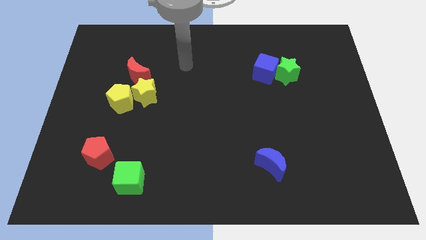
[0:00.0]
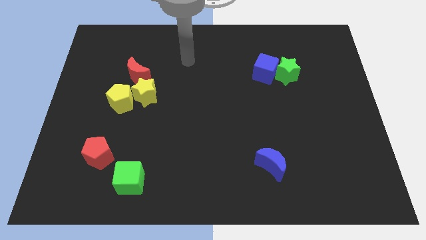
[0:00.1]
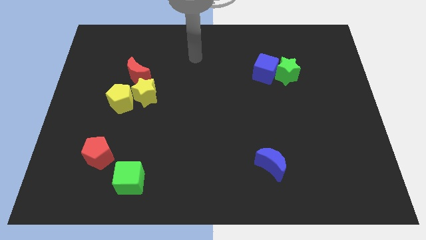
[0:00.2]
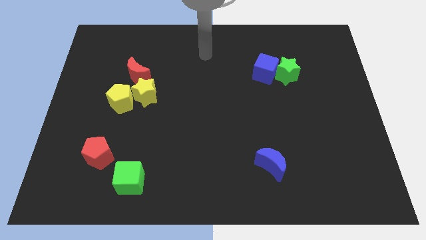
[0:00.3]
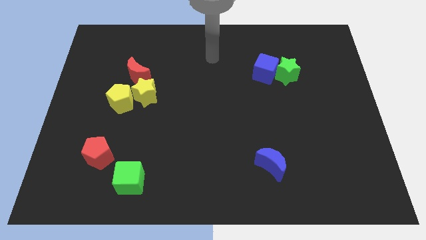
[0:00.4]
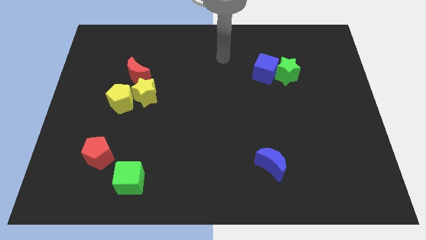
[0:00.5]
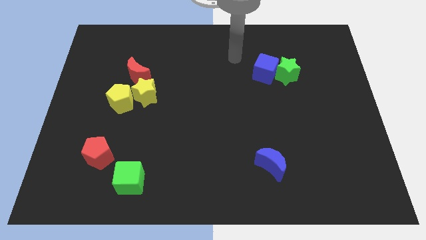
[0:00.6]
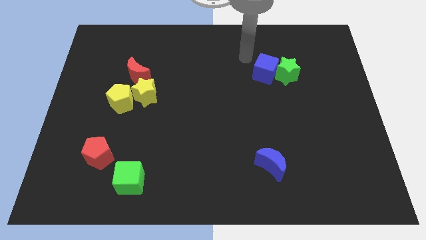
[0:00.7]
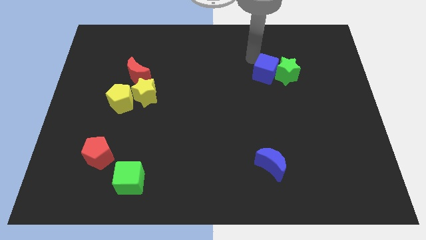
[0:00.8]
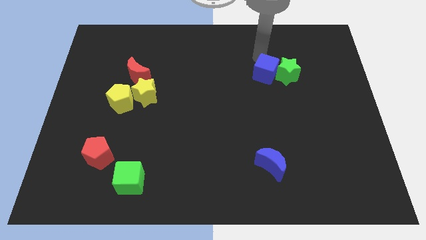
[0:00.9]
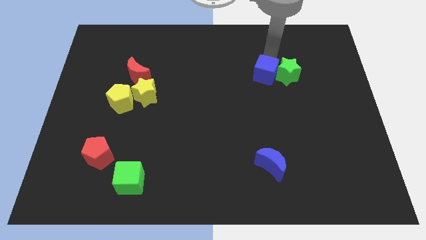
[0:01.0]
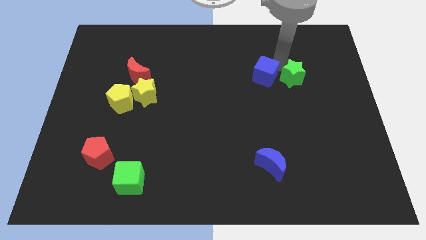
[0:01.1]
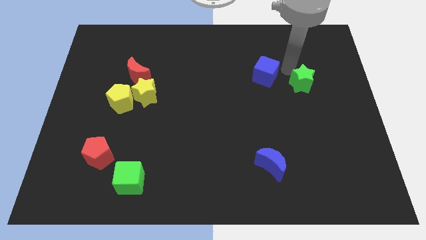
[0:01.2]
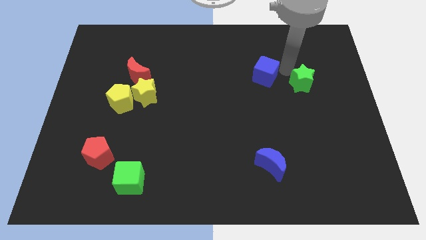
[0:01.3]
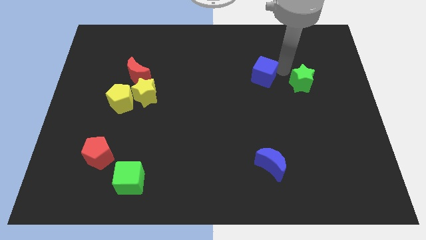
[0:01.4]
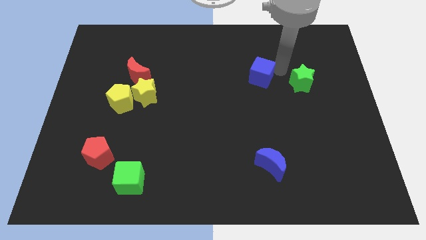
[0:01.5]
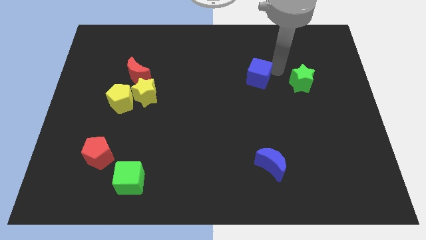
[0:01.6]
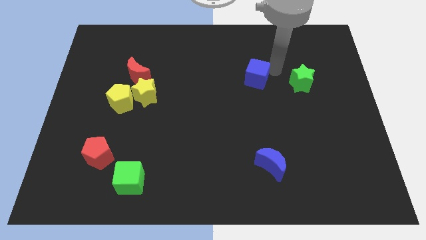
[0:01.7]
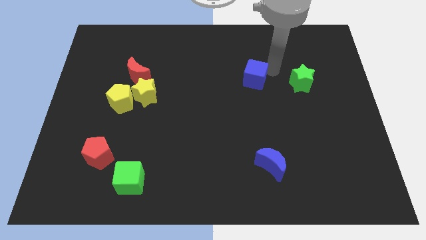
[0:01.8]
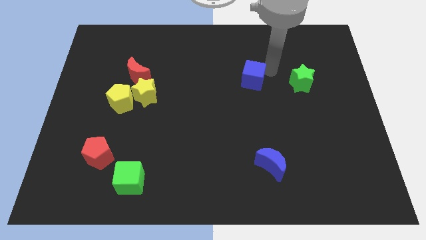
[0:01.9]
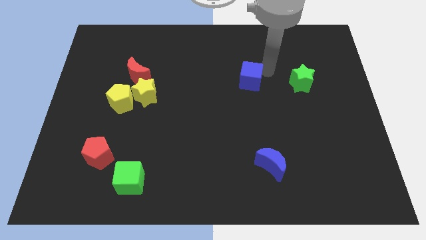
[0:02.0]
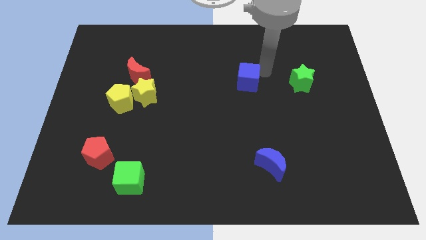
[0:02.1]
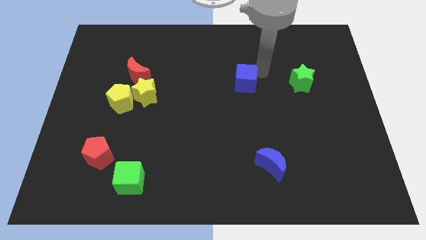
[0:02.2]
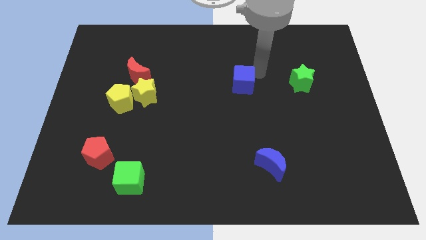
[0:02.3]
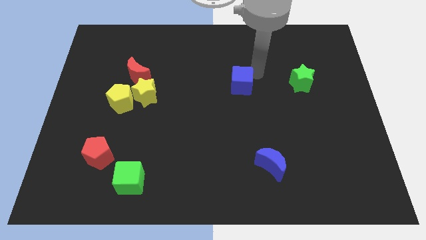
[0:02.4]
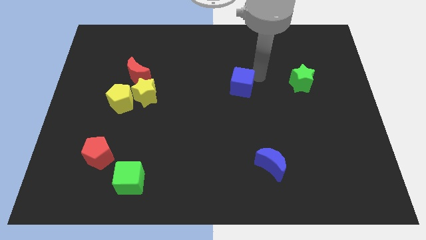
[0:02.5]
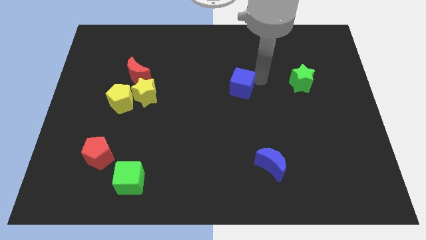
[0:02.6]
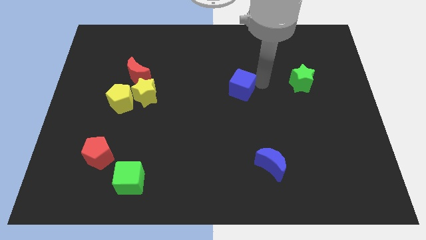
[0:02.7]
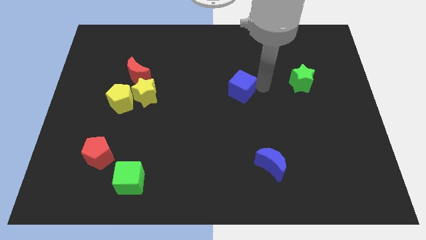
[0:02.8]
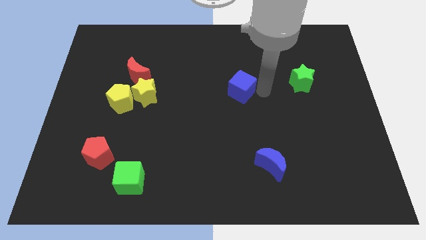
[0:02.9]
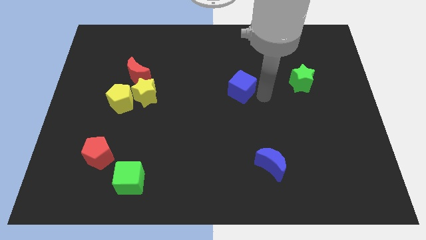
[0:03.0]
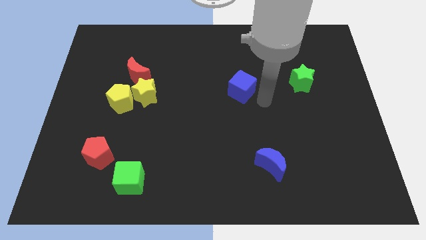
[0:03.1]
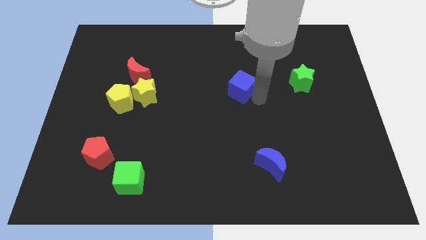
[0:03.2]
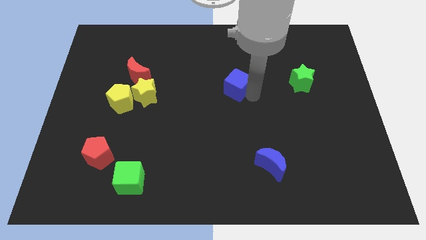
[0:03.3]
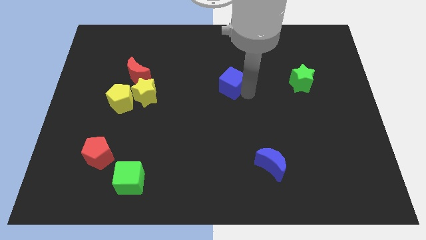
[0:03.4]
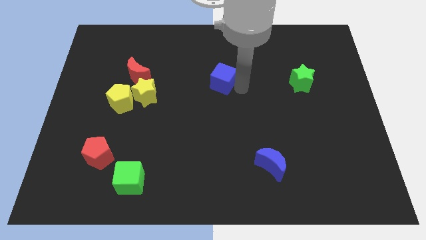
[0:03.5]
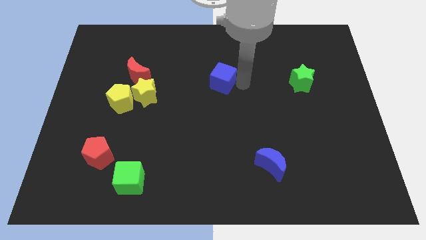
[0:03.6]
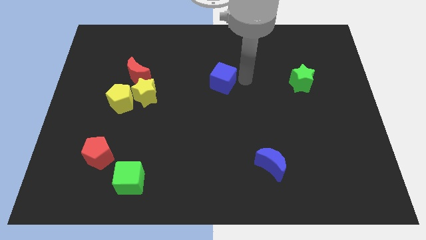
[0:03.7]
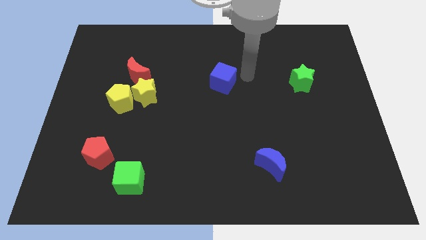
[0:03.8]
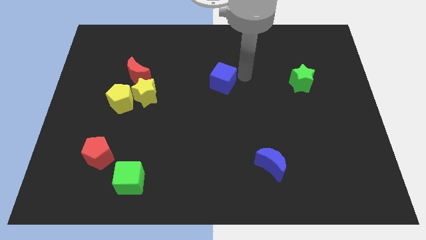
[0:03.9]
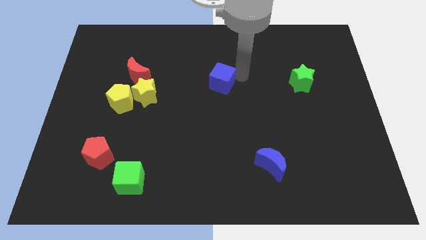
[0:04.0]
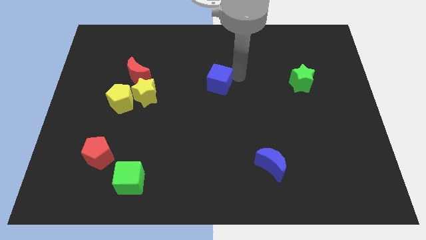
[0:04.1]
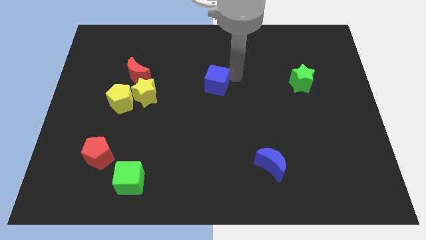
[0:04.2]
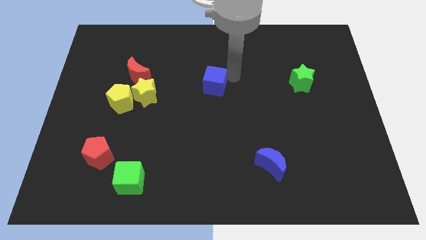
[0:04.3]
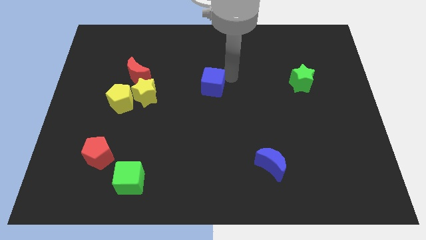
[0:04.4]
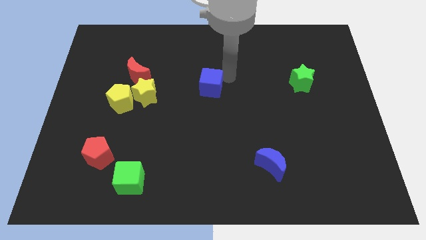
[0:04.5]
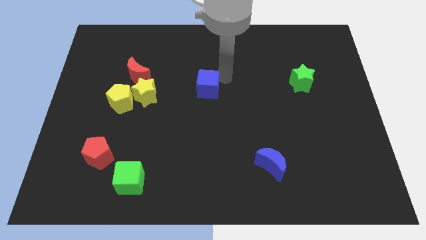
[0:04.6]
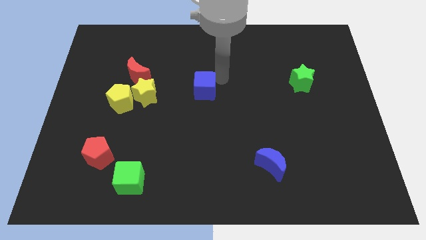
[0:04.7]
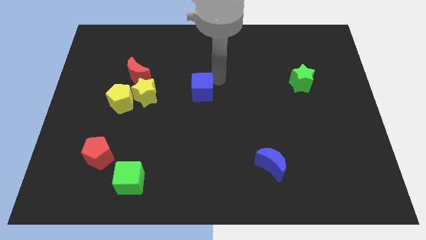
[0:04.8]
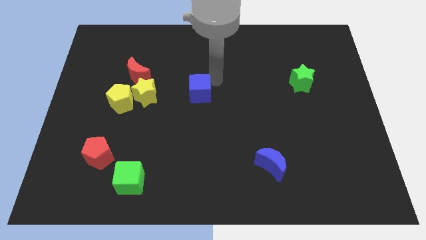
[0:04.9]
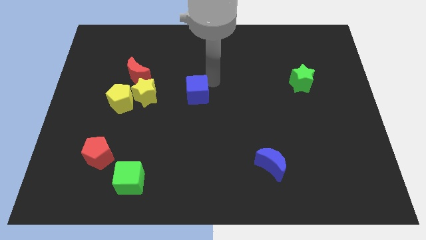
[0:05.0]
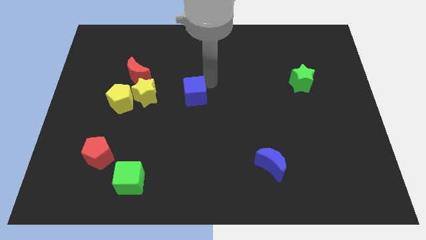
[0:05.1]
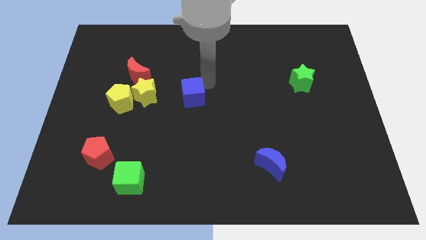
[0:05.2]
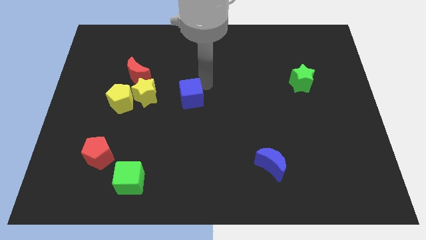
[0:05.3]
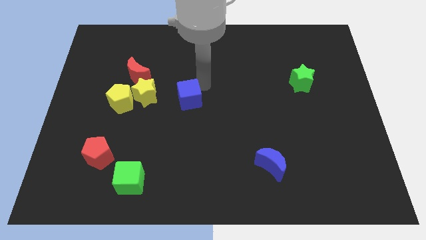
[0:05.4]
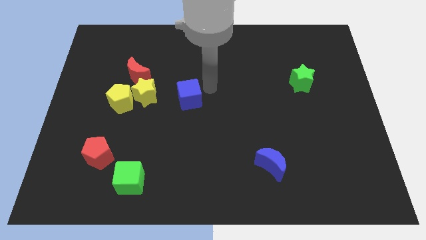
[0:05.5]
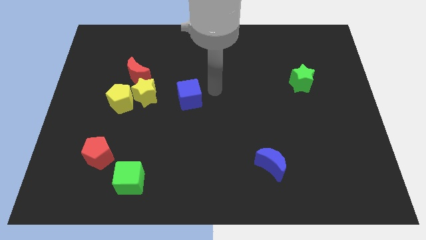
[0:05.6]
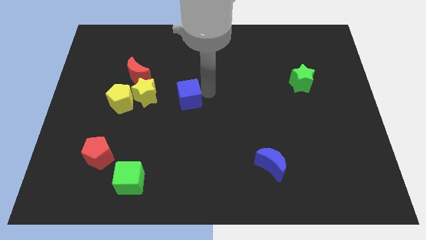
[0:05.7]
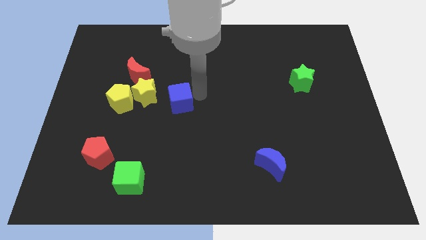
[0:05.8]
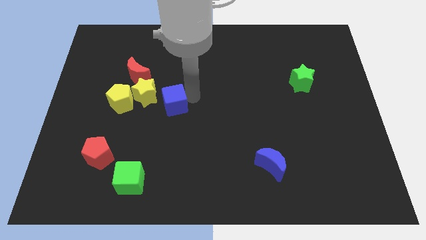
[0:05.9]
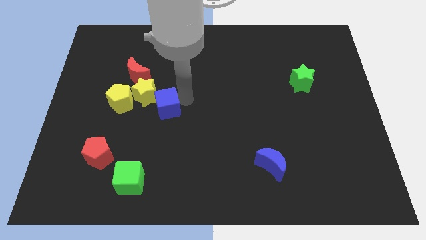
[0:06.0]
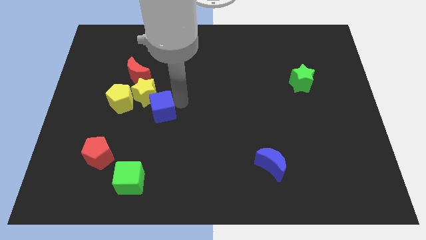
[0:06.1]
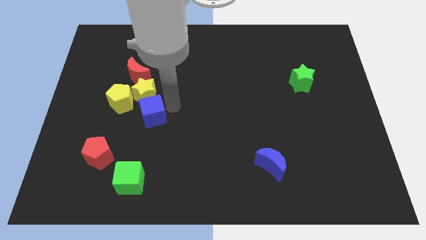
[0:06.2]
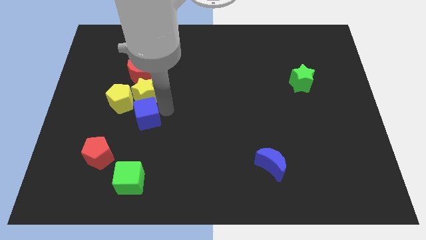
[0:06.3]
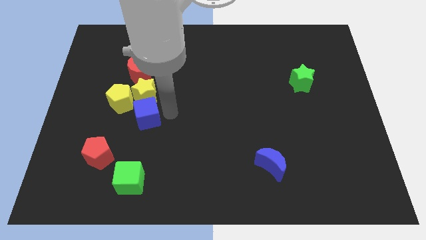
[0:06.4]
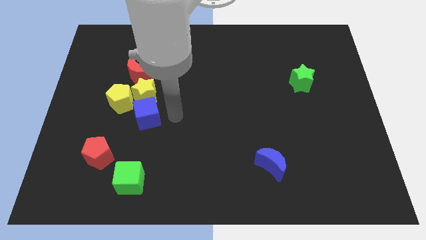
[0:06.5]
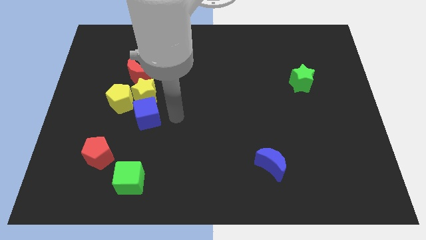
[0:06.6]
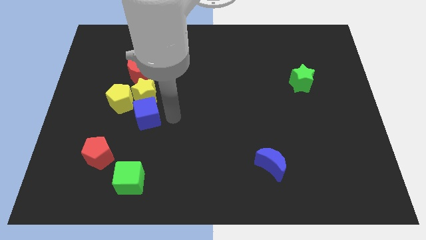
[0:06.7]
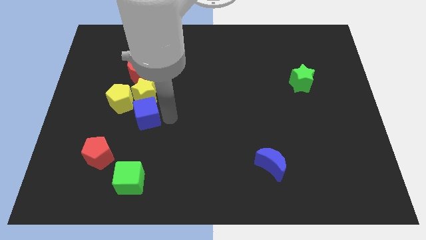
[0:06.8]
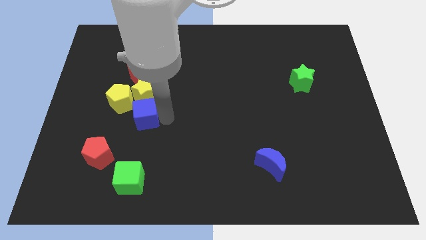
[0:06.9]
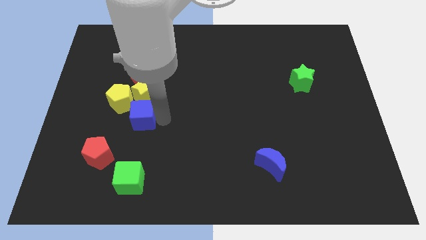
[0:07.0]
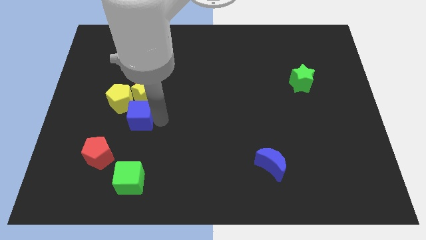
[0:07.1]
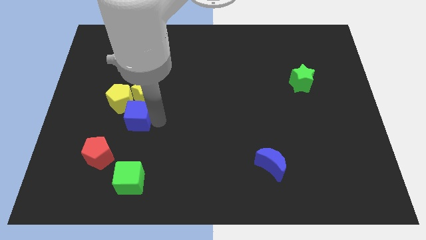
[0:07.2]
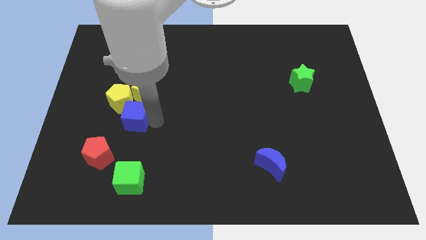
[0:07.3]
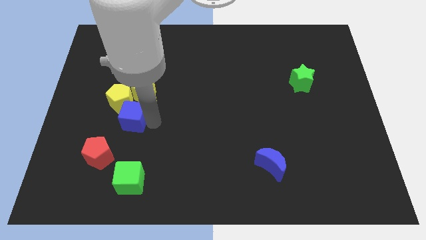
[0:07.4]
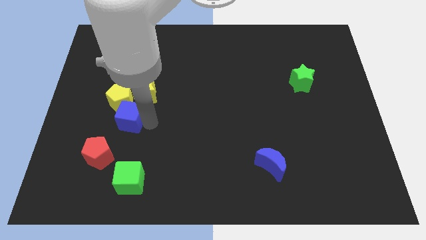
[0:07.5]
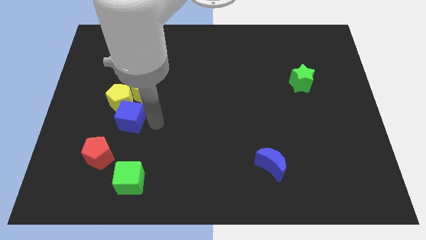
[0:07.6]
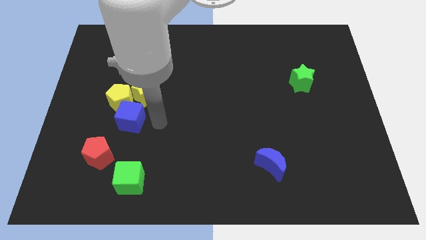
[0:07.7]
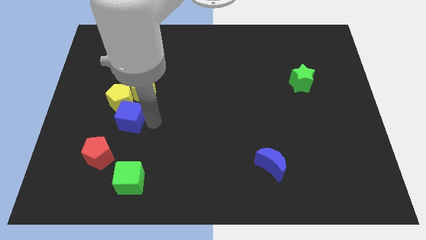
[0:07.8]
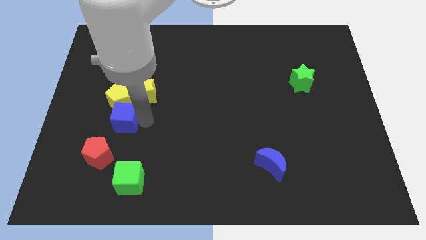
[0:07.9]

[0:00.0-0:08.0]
slide the blue cube above the red pentagon
